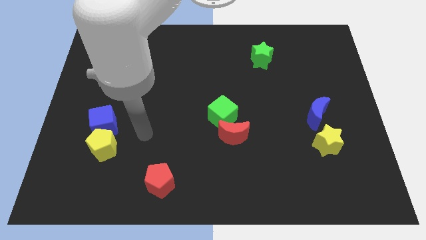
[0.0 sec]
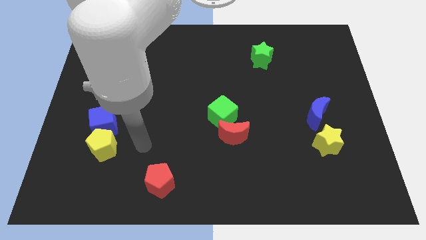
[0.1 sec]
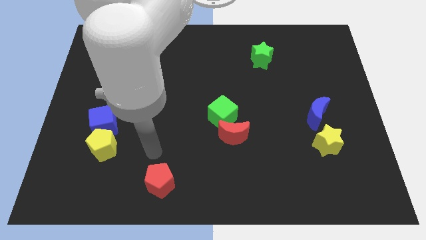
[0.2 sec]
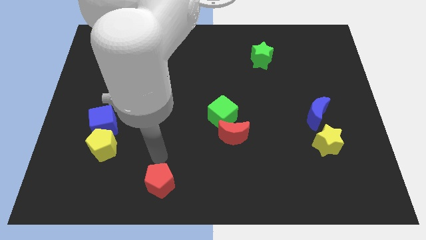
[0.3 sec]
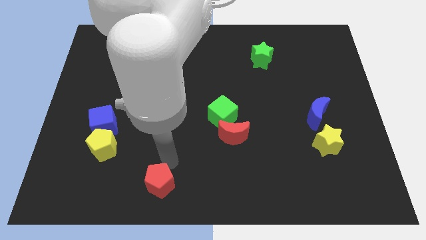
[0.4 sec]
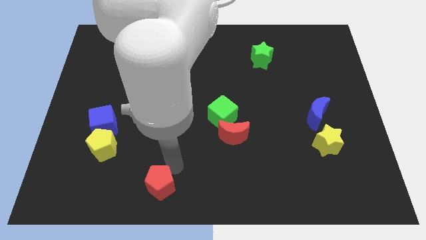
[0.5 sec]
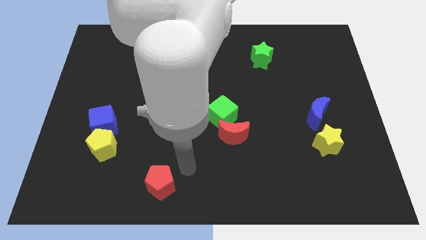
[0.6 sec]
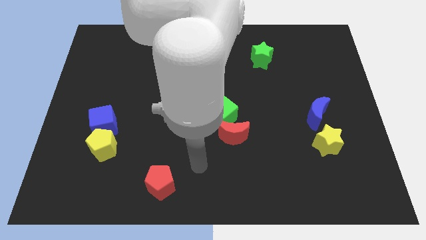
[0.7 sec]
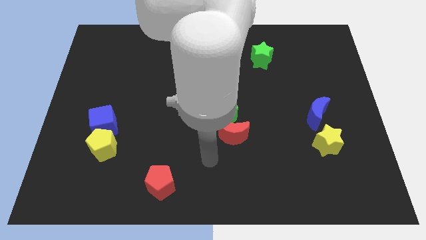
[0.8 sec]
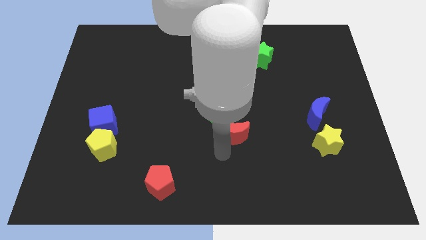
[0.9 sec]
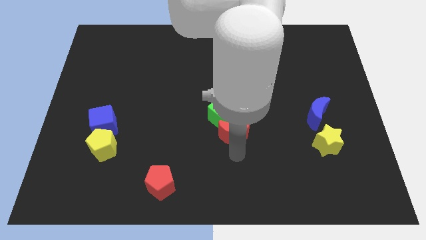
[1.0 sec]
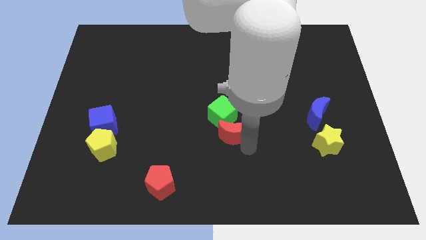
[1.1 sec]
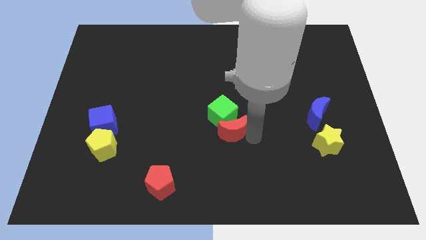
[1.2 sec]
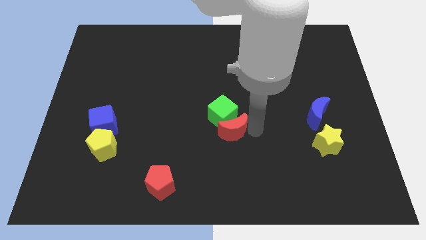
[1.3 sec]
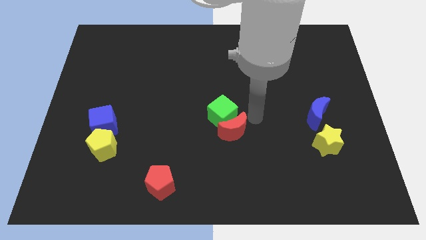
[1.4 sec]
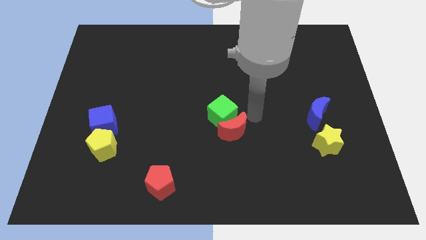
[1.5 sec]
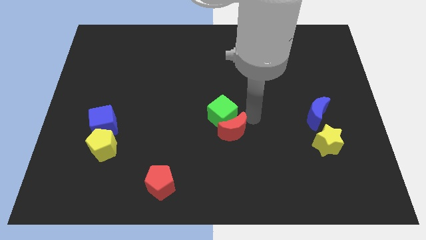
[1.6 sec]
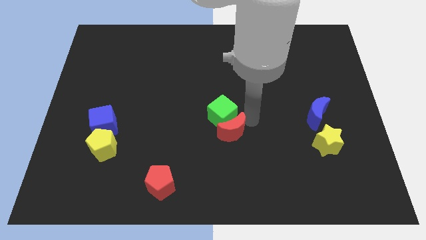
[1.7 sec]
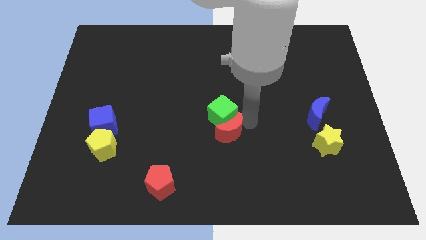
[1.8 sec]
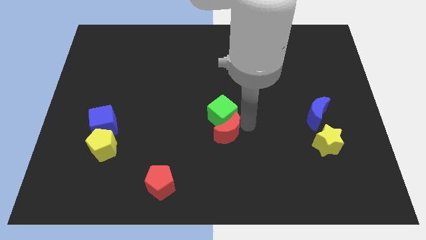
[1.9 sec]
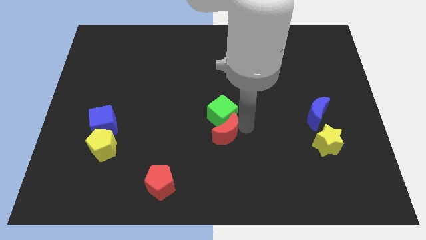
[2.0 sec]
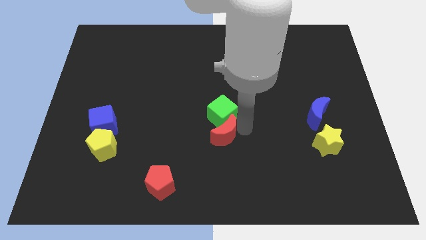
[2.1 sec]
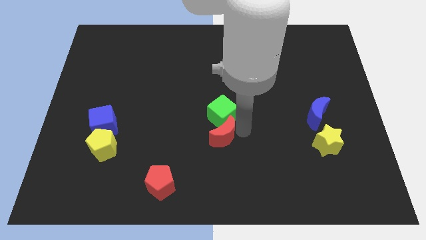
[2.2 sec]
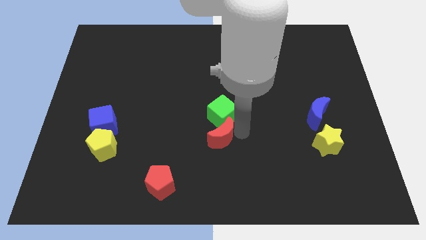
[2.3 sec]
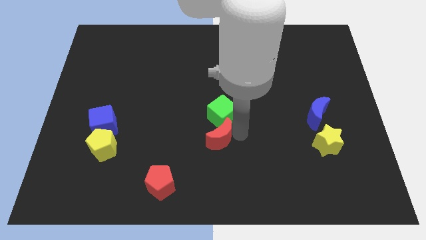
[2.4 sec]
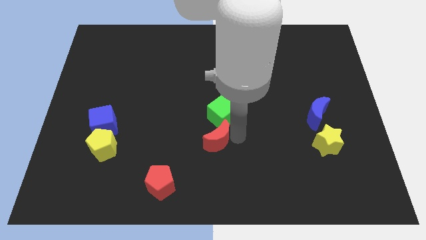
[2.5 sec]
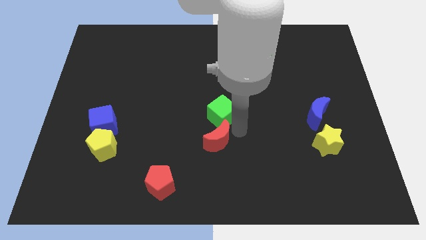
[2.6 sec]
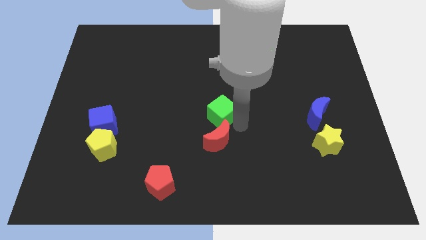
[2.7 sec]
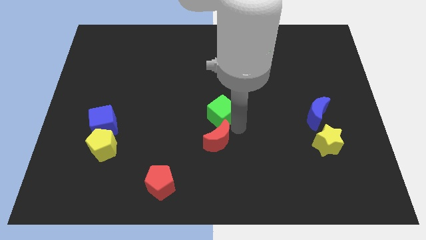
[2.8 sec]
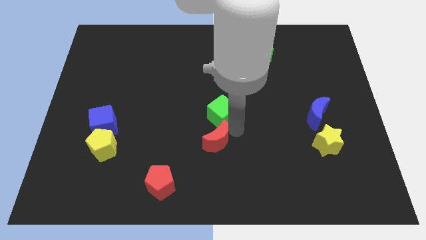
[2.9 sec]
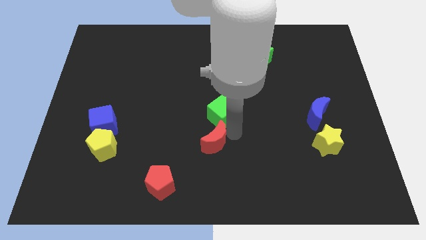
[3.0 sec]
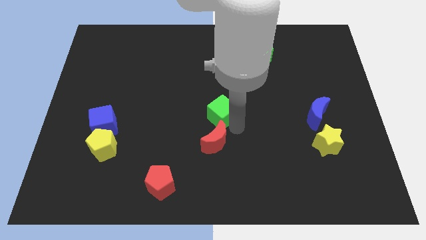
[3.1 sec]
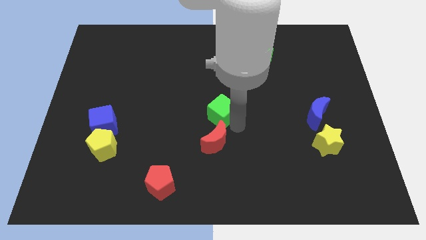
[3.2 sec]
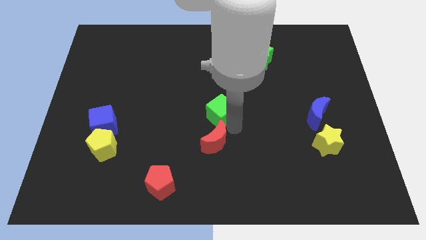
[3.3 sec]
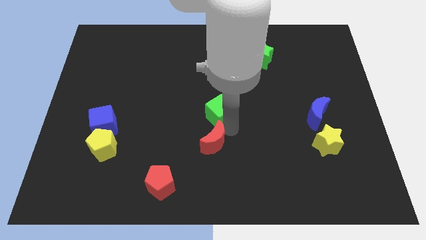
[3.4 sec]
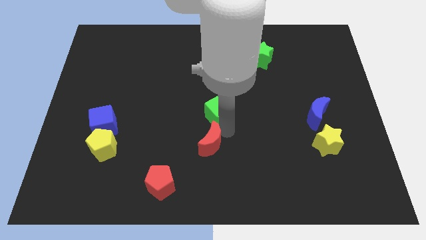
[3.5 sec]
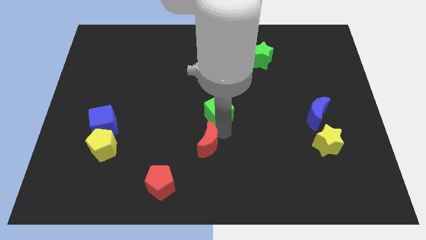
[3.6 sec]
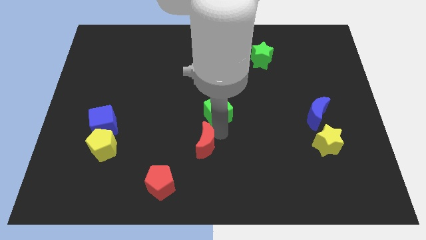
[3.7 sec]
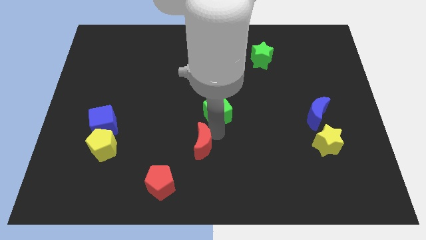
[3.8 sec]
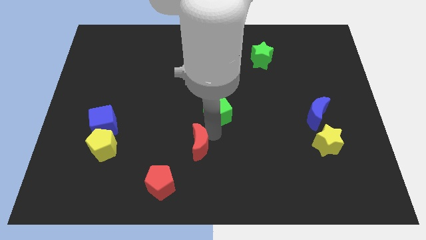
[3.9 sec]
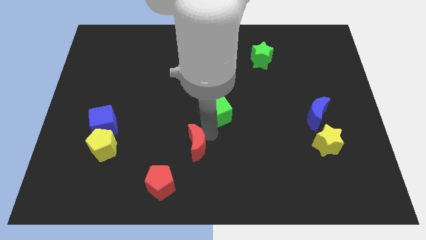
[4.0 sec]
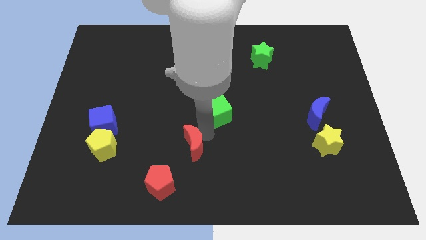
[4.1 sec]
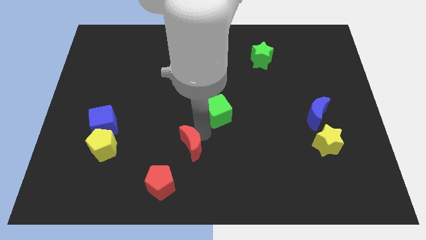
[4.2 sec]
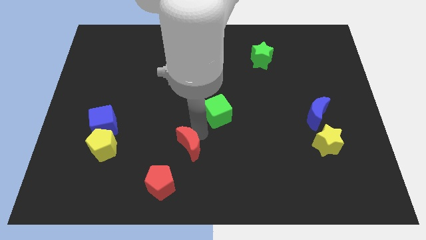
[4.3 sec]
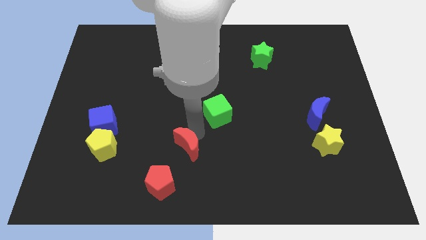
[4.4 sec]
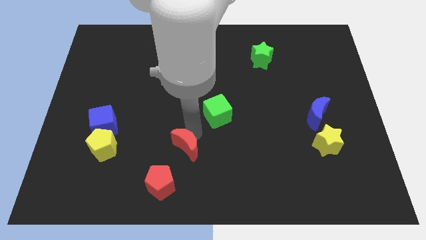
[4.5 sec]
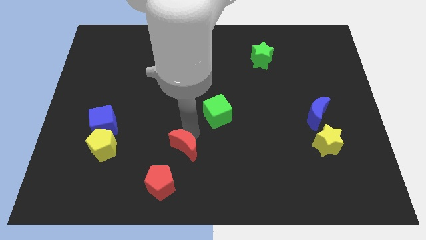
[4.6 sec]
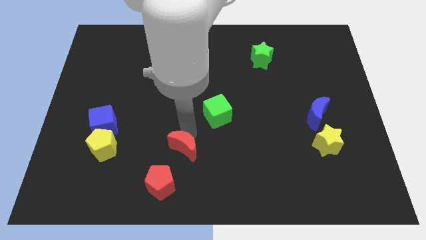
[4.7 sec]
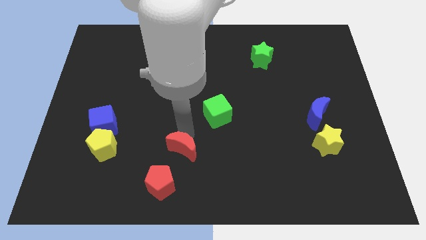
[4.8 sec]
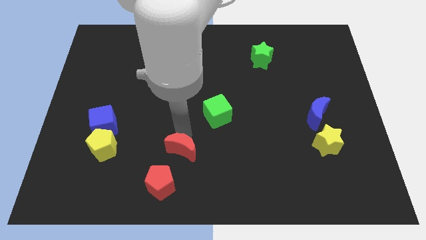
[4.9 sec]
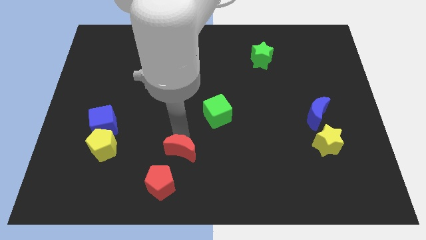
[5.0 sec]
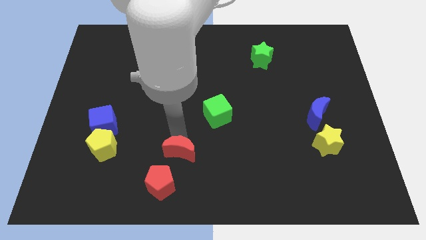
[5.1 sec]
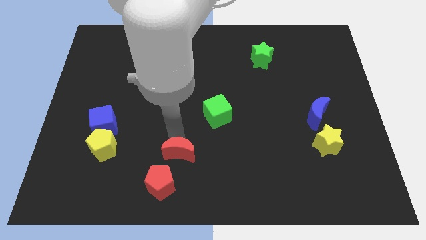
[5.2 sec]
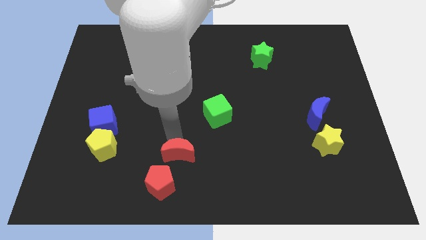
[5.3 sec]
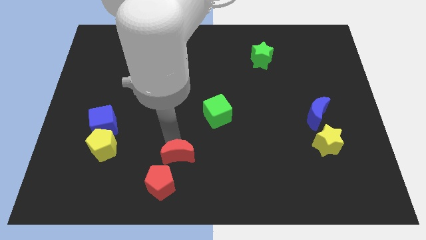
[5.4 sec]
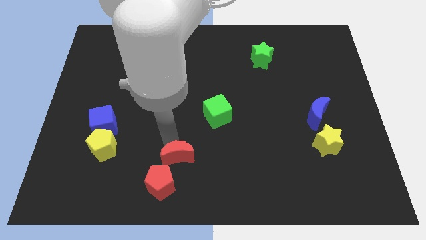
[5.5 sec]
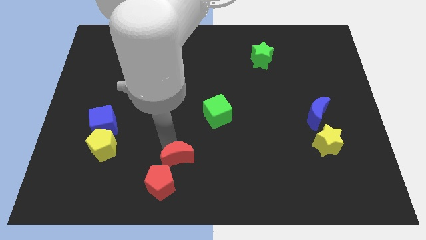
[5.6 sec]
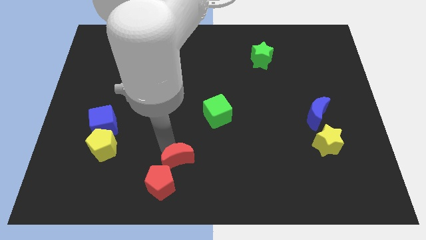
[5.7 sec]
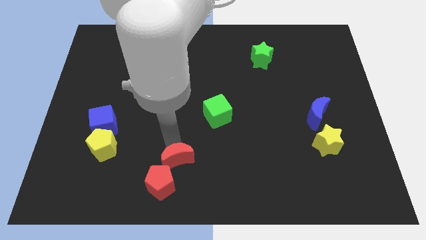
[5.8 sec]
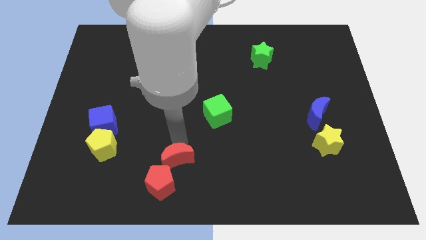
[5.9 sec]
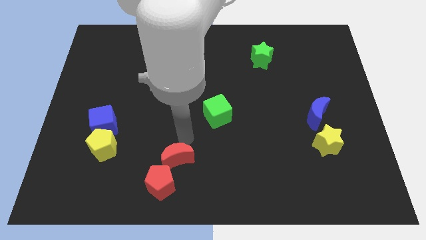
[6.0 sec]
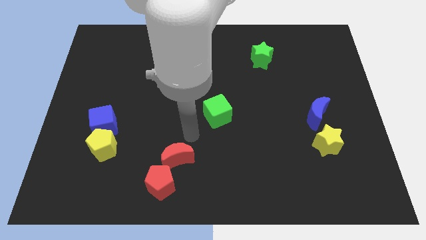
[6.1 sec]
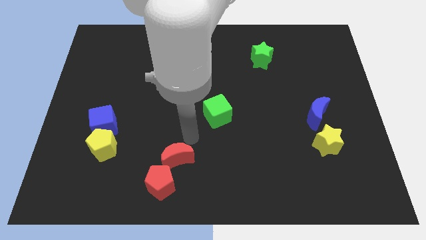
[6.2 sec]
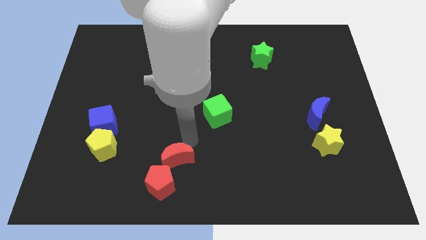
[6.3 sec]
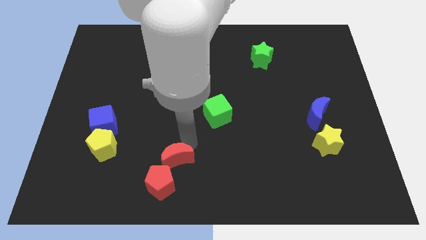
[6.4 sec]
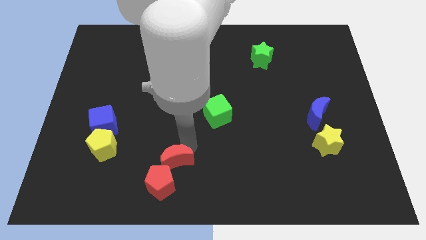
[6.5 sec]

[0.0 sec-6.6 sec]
slide the red moon to the red pentagon

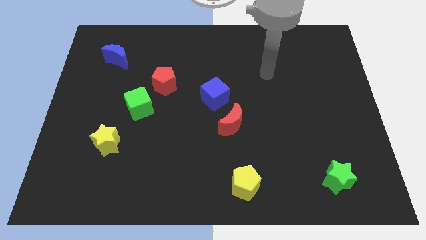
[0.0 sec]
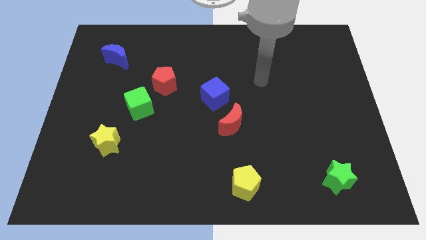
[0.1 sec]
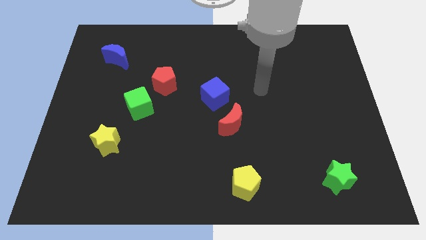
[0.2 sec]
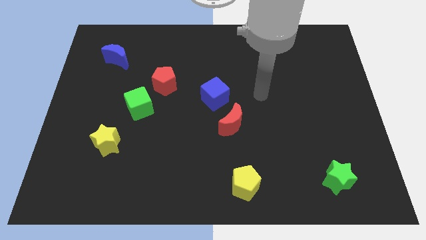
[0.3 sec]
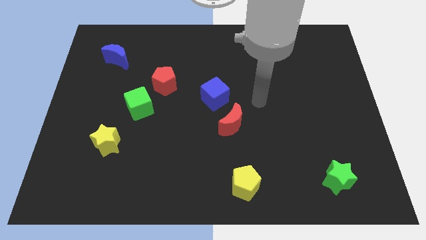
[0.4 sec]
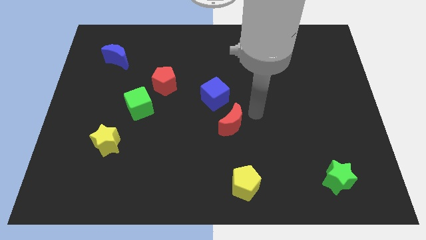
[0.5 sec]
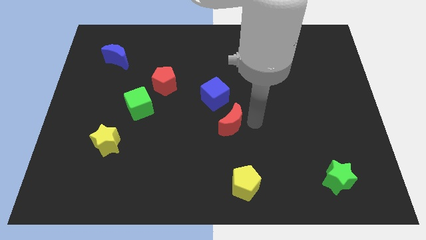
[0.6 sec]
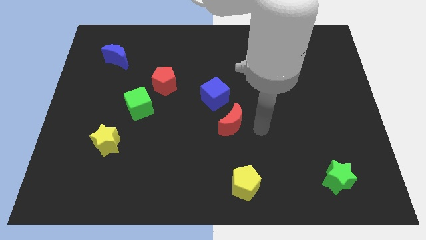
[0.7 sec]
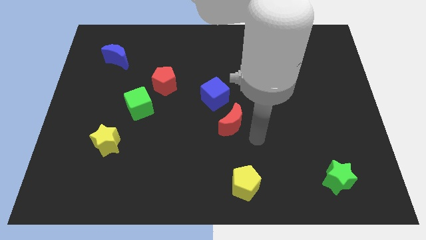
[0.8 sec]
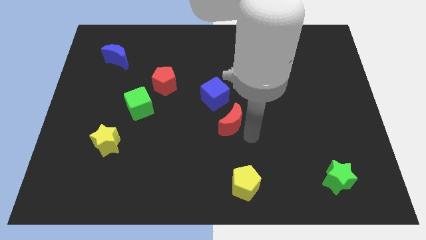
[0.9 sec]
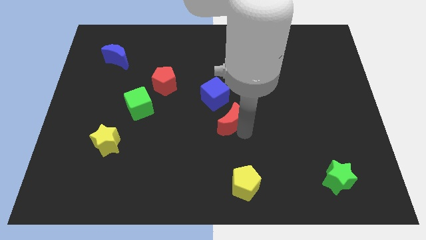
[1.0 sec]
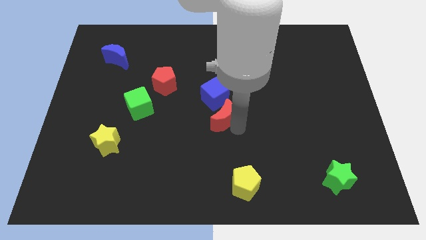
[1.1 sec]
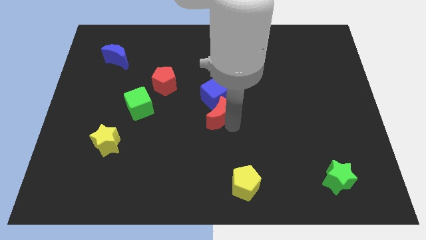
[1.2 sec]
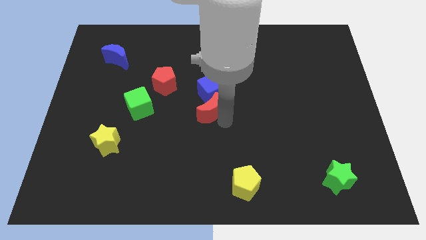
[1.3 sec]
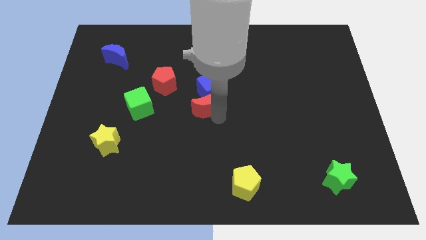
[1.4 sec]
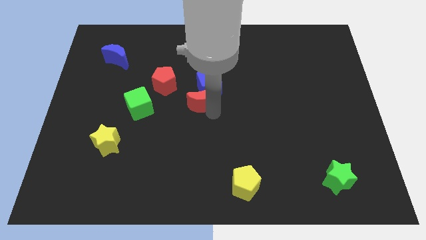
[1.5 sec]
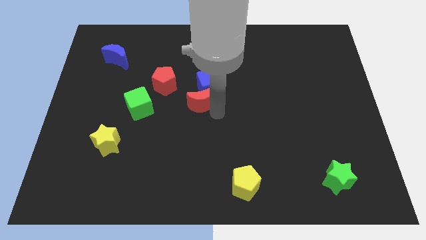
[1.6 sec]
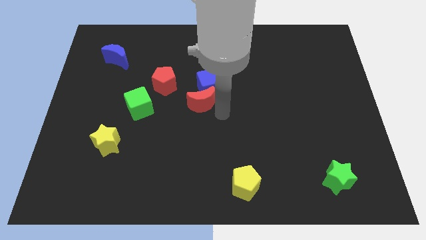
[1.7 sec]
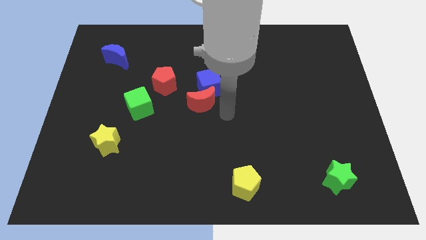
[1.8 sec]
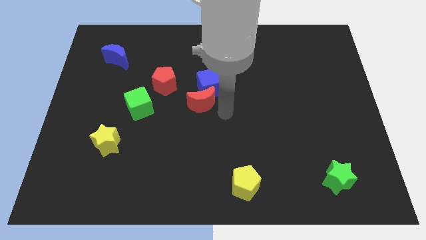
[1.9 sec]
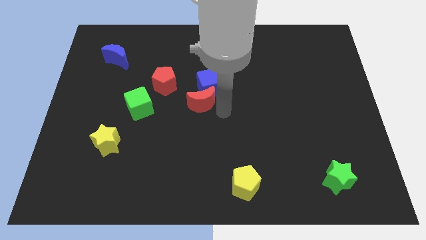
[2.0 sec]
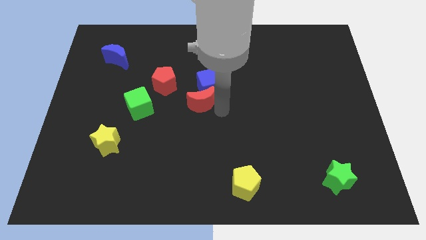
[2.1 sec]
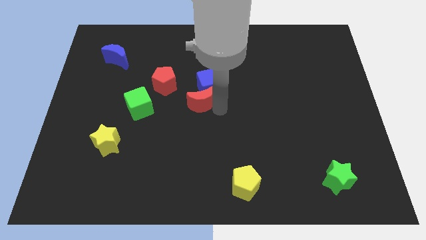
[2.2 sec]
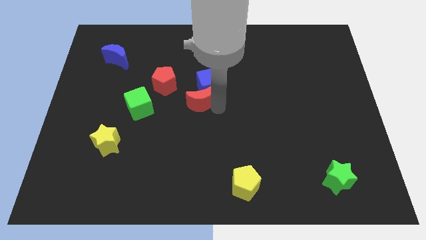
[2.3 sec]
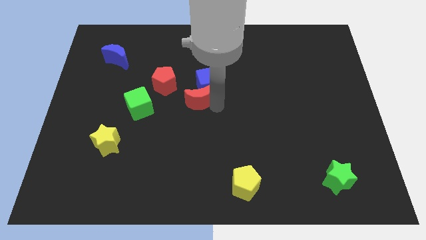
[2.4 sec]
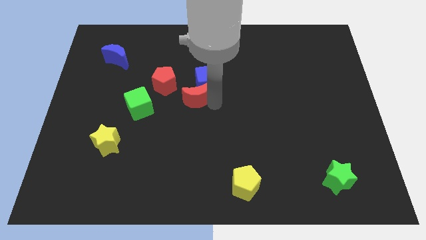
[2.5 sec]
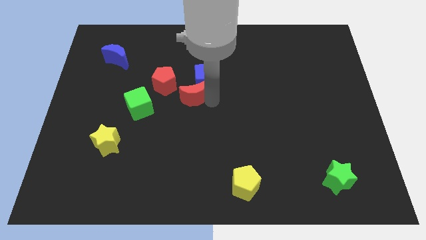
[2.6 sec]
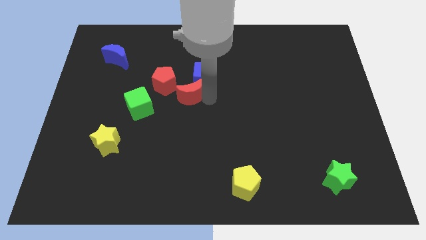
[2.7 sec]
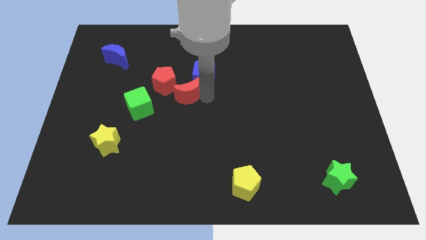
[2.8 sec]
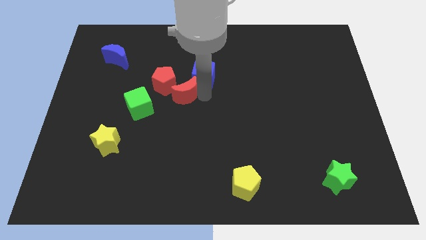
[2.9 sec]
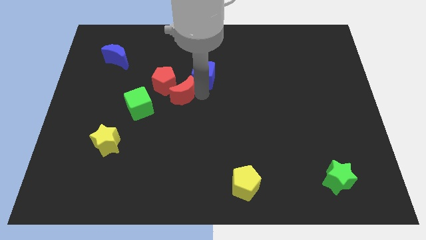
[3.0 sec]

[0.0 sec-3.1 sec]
put the red moon towards the red pentagon
